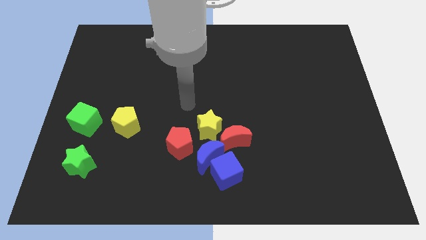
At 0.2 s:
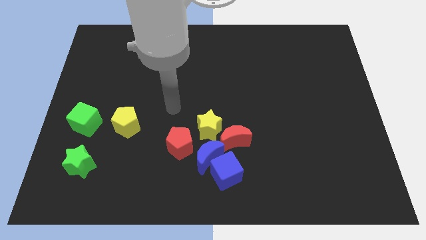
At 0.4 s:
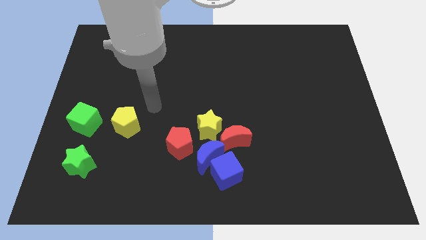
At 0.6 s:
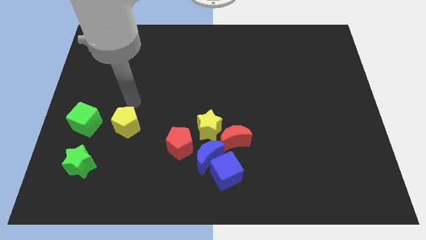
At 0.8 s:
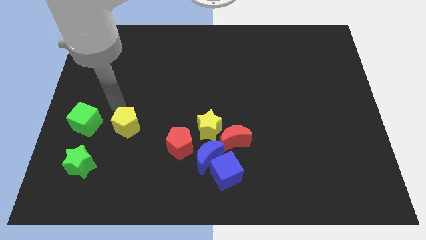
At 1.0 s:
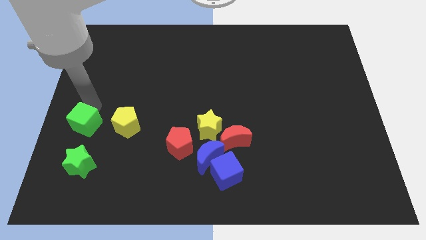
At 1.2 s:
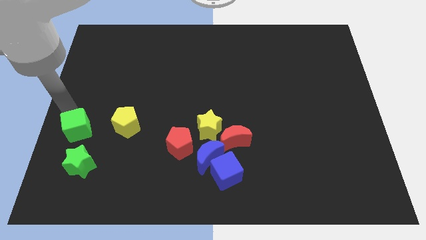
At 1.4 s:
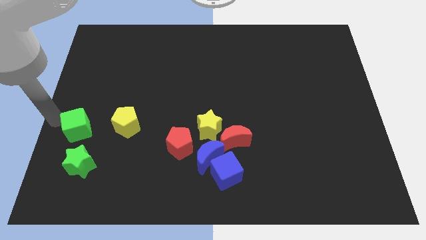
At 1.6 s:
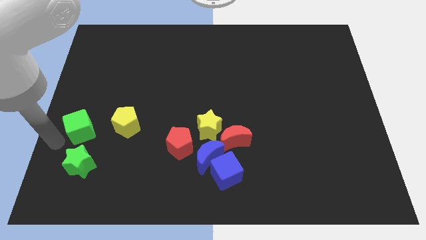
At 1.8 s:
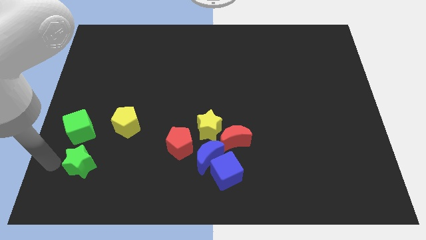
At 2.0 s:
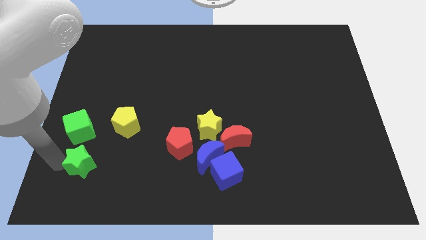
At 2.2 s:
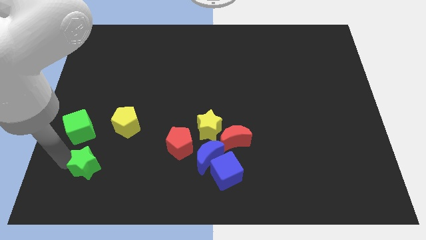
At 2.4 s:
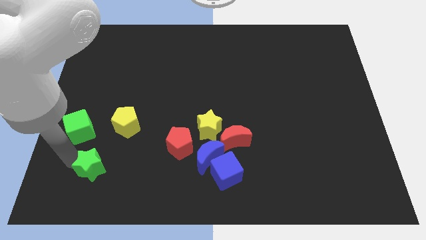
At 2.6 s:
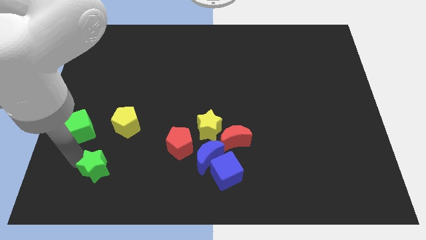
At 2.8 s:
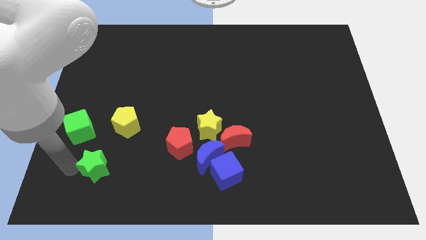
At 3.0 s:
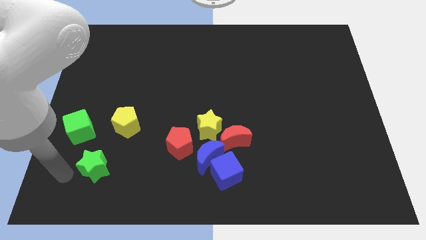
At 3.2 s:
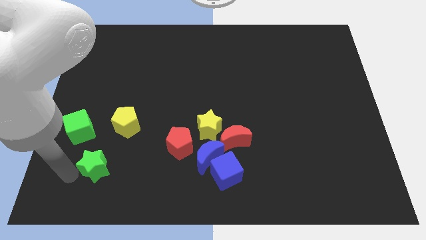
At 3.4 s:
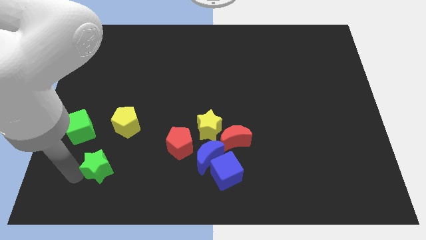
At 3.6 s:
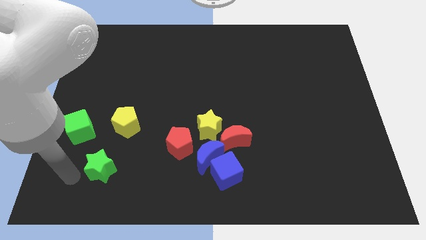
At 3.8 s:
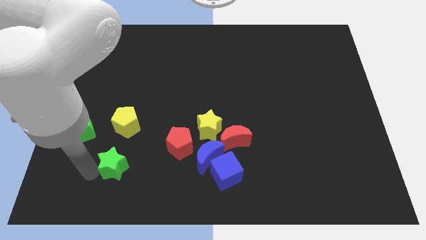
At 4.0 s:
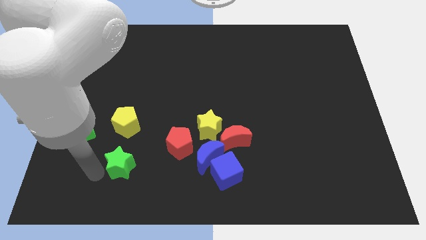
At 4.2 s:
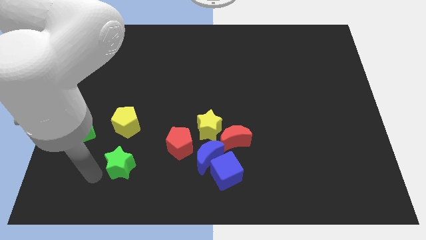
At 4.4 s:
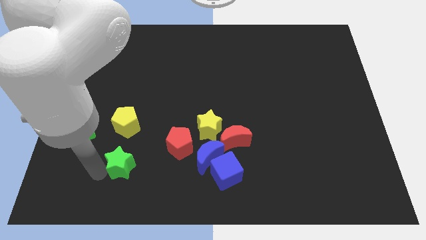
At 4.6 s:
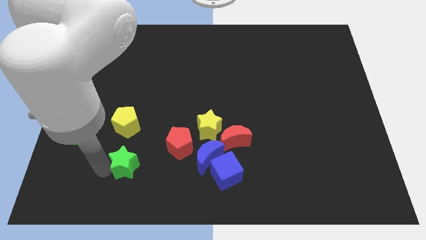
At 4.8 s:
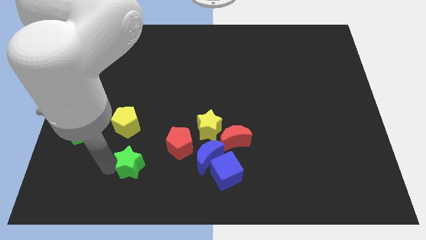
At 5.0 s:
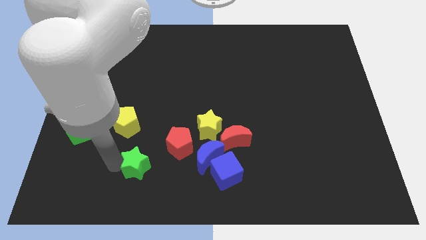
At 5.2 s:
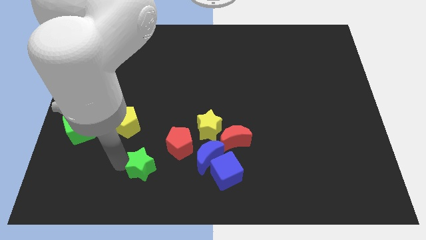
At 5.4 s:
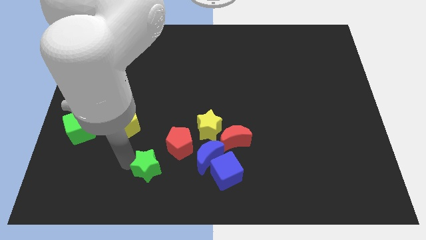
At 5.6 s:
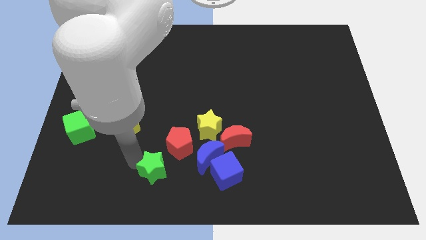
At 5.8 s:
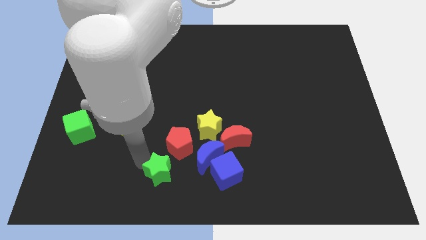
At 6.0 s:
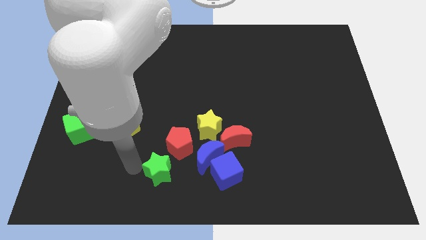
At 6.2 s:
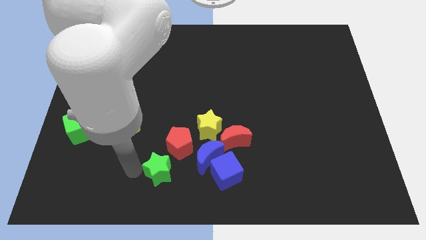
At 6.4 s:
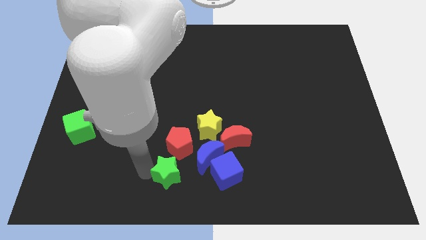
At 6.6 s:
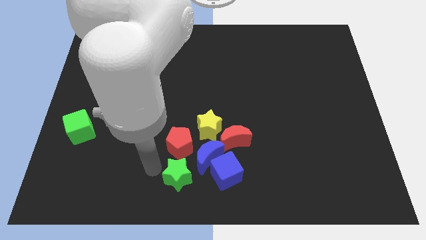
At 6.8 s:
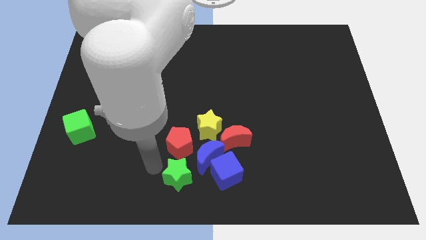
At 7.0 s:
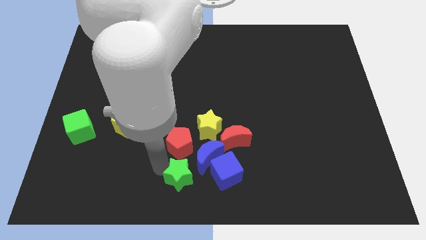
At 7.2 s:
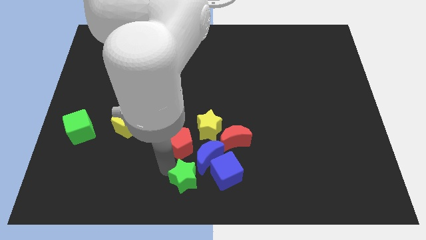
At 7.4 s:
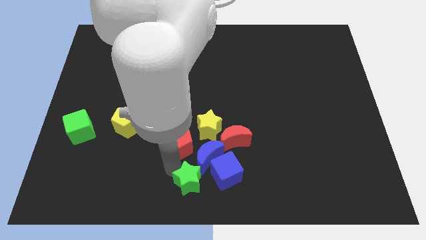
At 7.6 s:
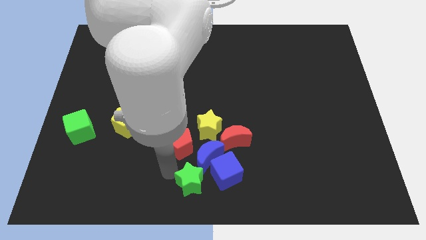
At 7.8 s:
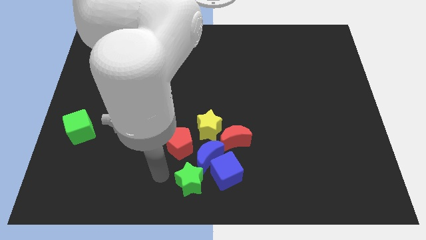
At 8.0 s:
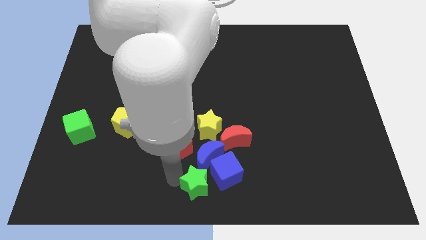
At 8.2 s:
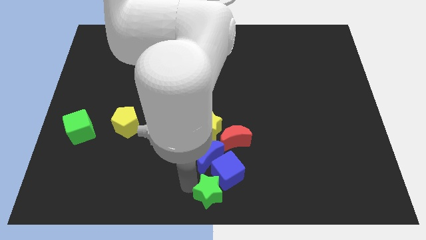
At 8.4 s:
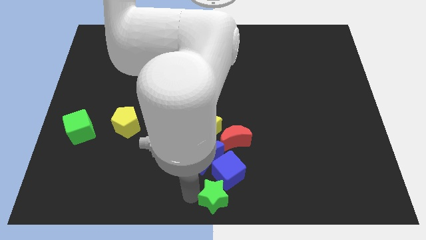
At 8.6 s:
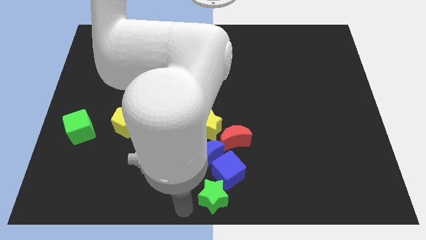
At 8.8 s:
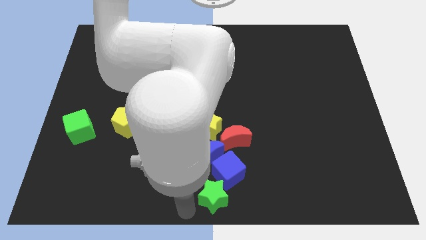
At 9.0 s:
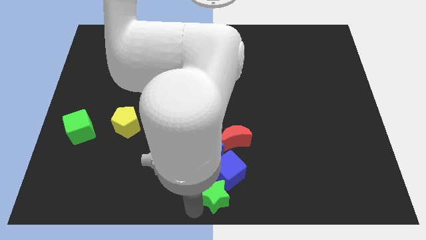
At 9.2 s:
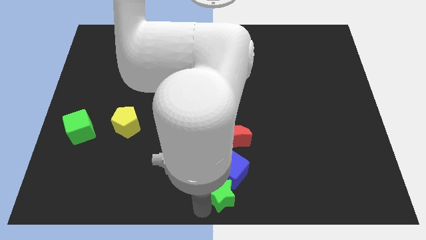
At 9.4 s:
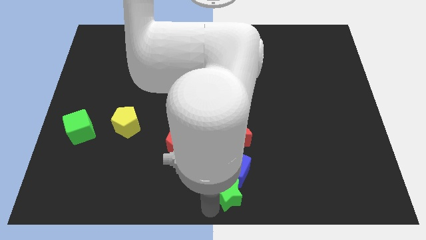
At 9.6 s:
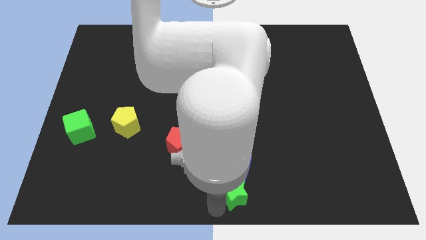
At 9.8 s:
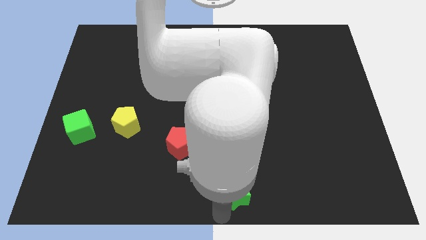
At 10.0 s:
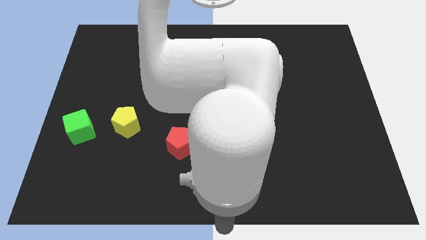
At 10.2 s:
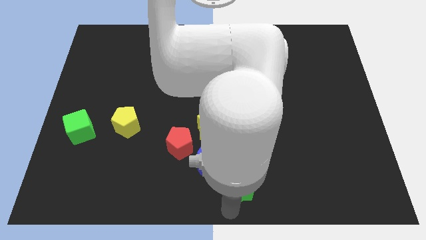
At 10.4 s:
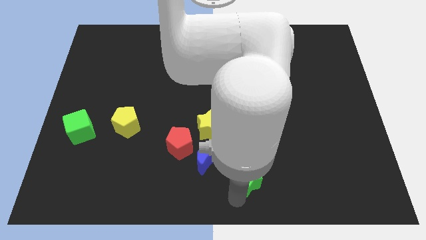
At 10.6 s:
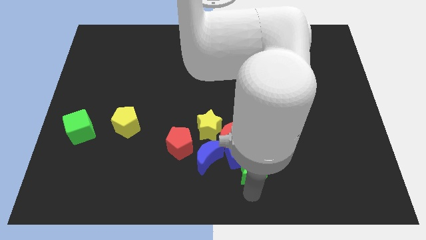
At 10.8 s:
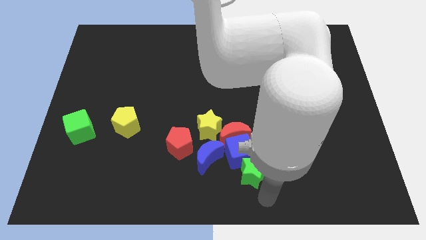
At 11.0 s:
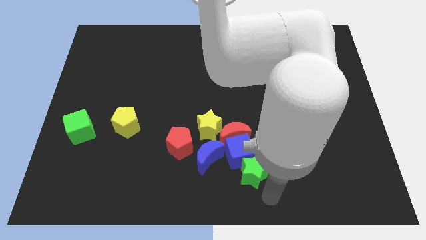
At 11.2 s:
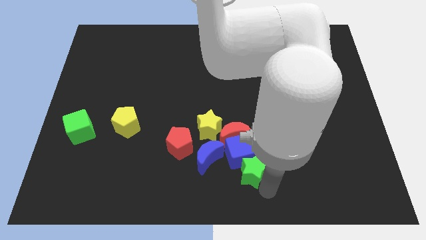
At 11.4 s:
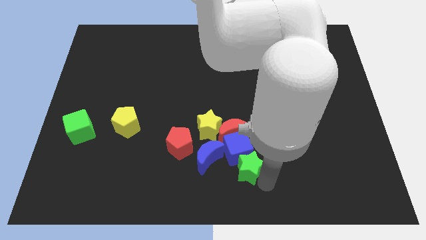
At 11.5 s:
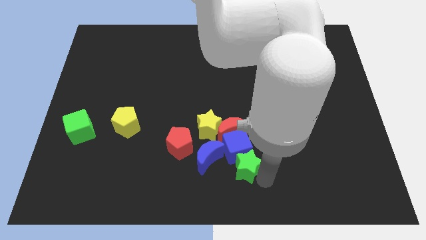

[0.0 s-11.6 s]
move the green star diagonally down and to the right of the yellow star

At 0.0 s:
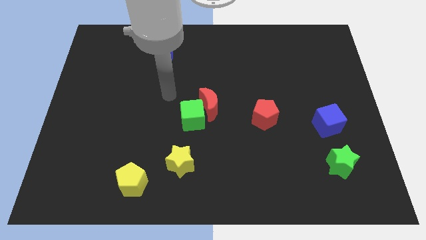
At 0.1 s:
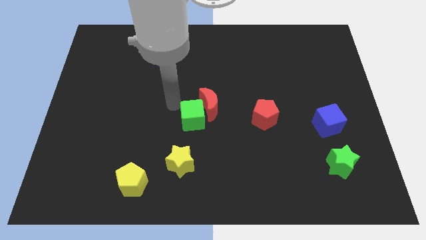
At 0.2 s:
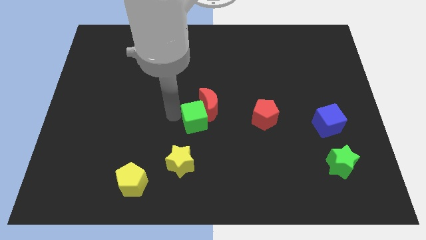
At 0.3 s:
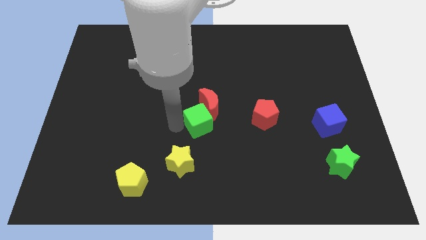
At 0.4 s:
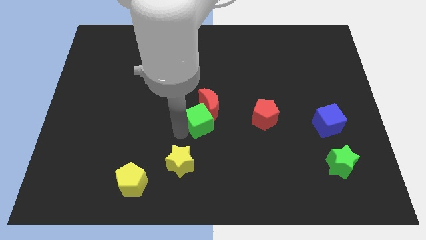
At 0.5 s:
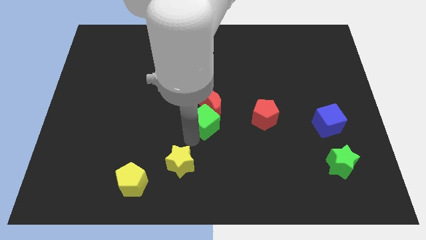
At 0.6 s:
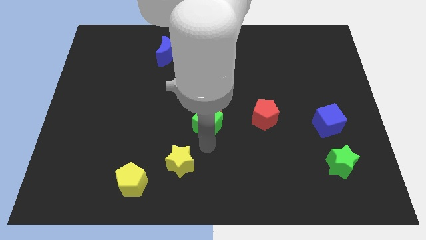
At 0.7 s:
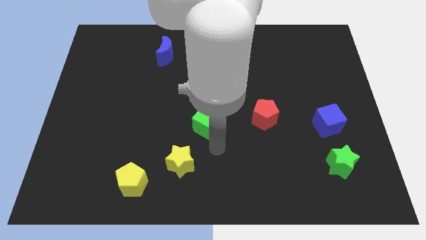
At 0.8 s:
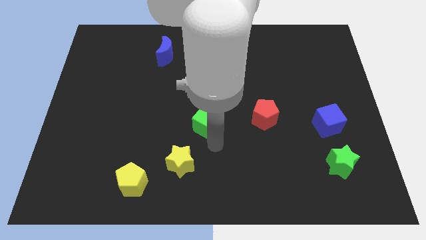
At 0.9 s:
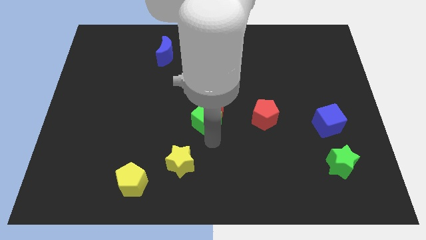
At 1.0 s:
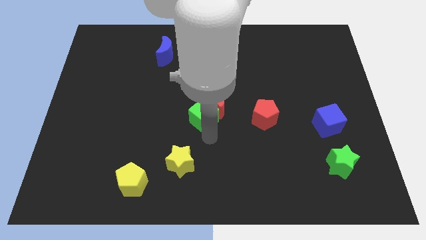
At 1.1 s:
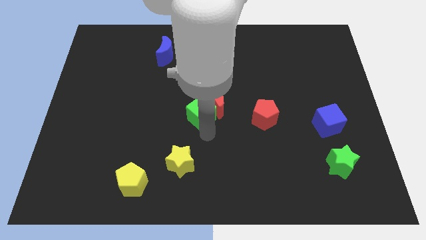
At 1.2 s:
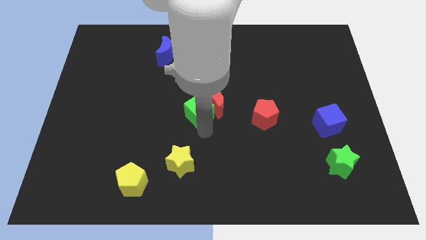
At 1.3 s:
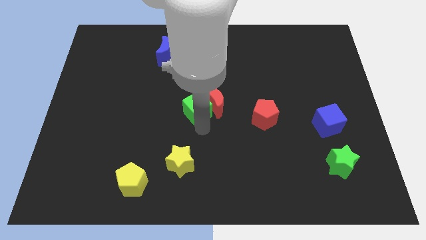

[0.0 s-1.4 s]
put the green cube diagonally up and to the left of the red moon
